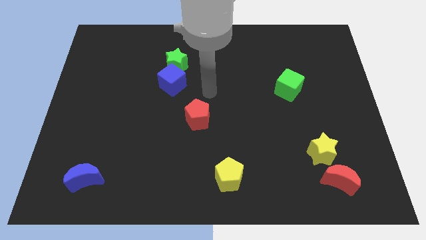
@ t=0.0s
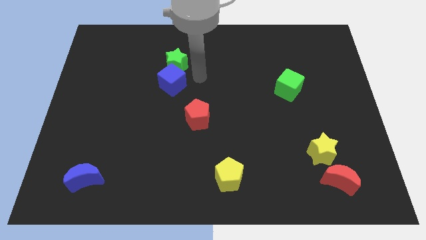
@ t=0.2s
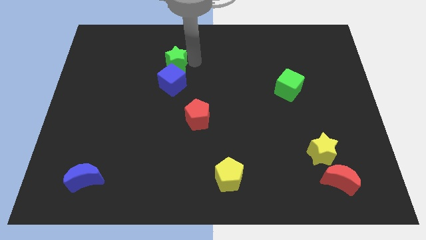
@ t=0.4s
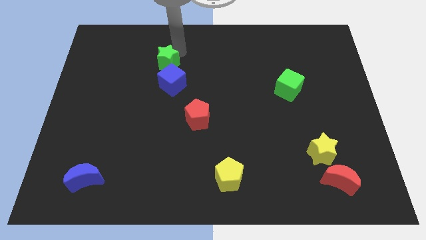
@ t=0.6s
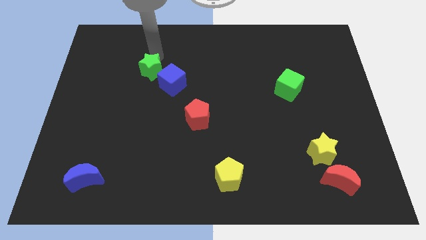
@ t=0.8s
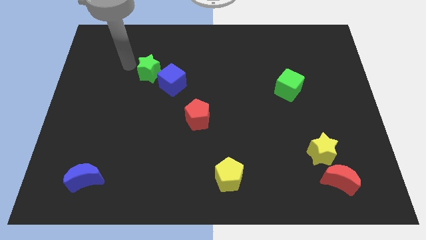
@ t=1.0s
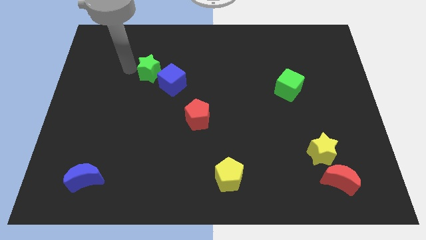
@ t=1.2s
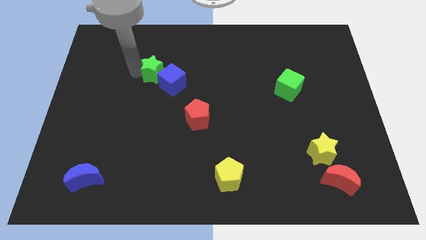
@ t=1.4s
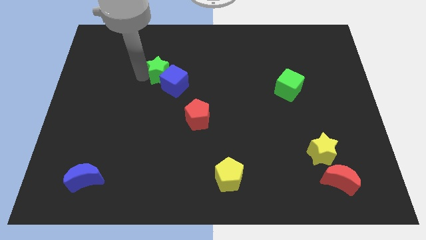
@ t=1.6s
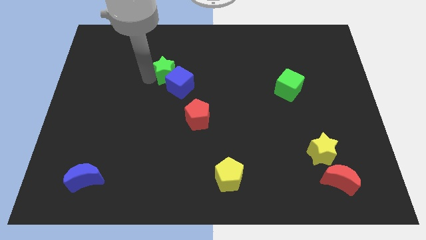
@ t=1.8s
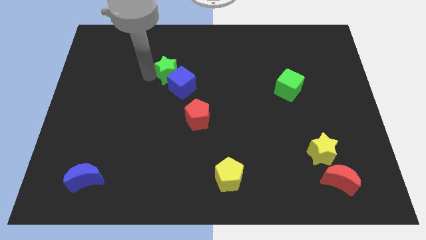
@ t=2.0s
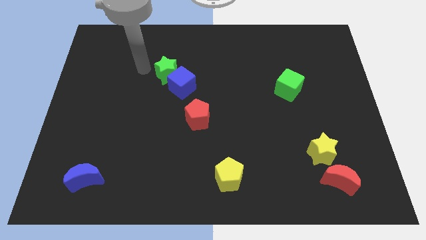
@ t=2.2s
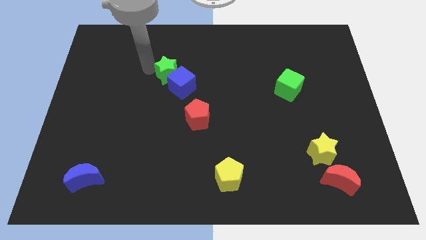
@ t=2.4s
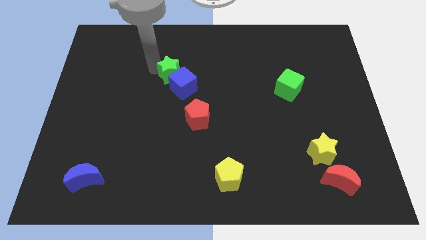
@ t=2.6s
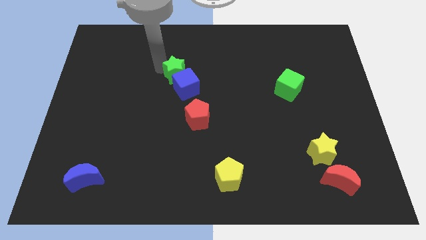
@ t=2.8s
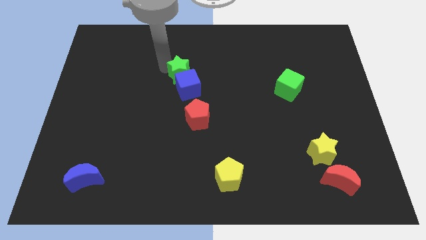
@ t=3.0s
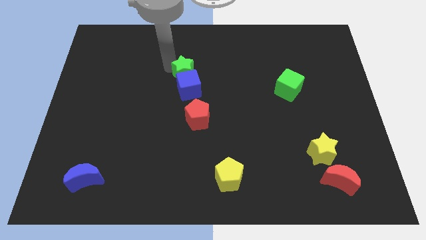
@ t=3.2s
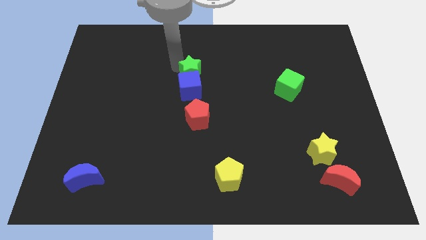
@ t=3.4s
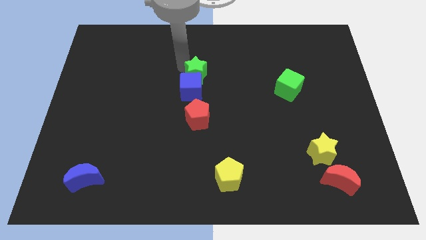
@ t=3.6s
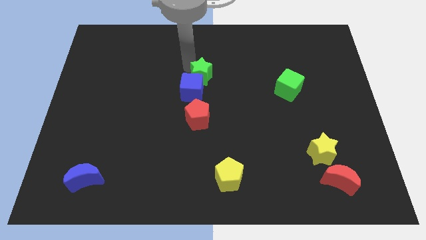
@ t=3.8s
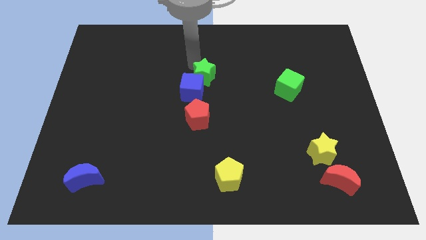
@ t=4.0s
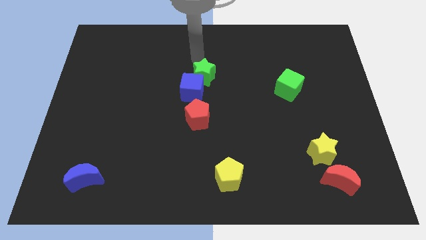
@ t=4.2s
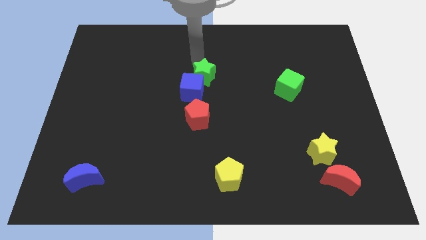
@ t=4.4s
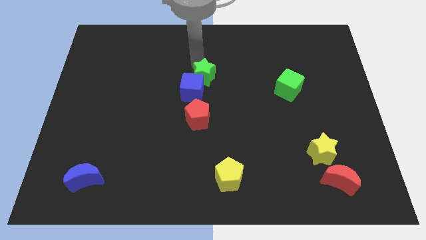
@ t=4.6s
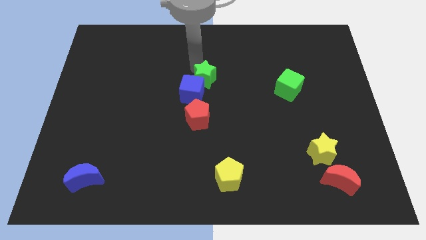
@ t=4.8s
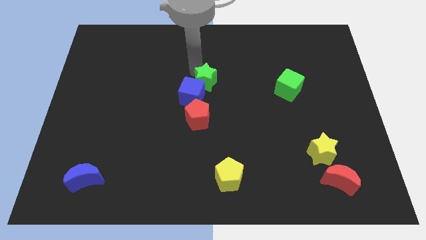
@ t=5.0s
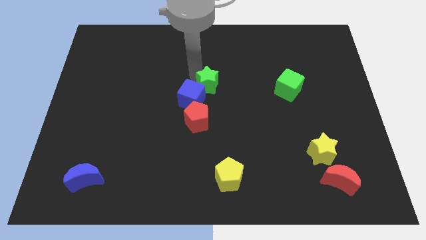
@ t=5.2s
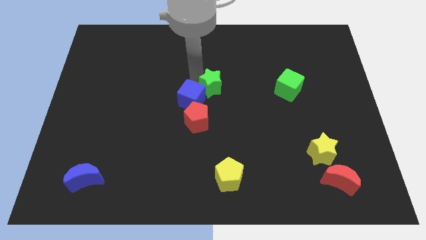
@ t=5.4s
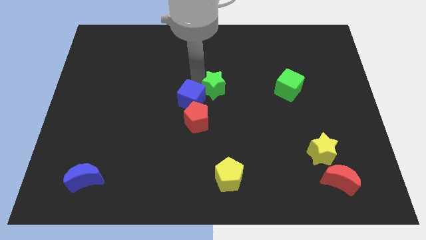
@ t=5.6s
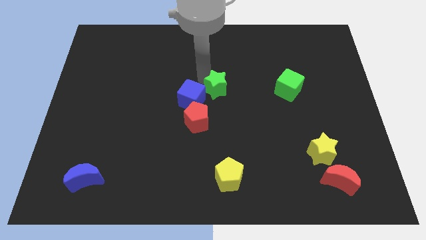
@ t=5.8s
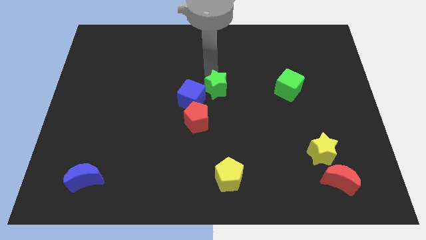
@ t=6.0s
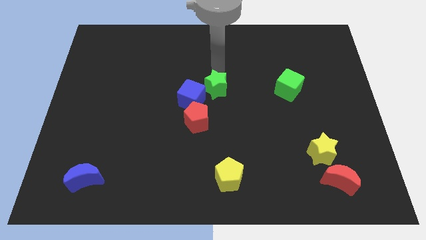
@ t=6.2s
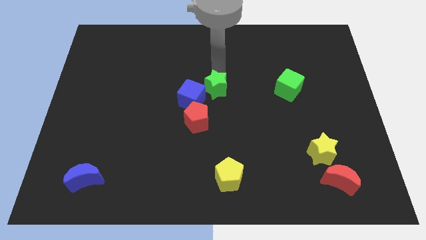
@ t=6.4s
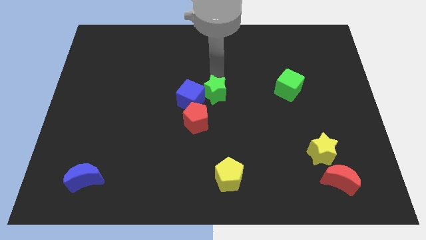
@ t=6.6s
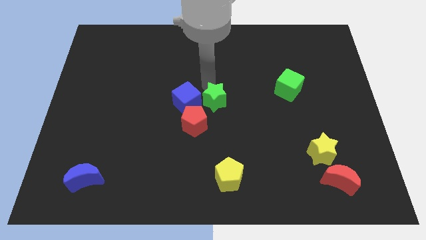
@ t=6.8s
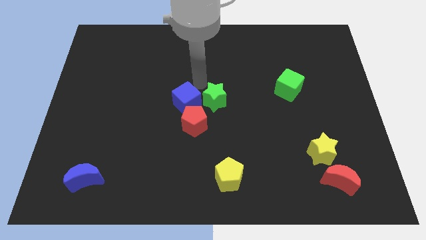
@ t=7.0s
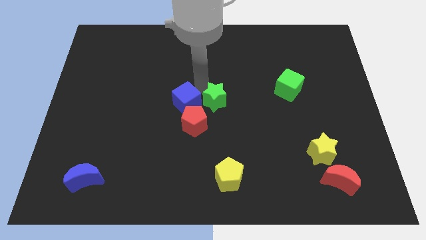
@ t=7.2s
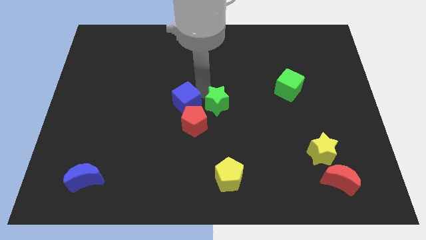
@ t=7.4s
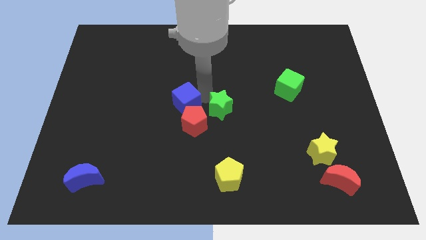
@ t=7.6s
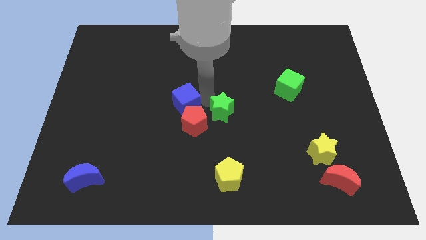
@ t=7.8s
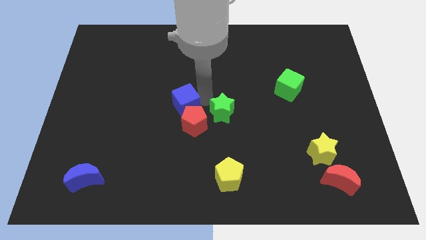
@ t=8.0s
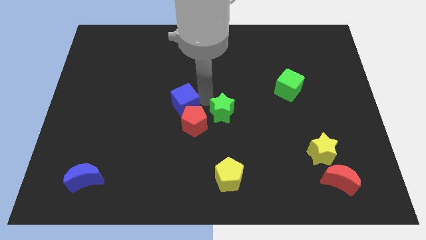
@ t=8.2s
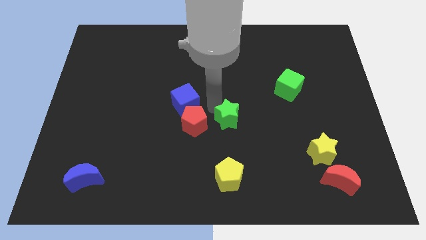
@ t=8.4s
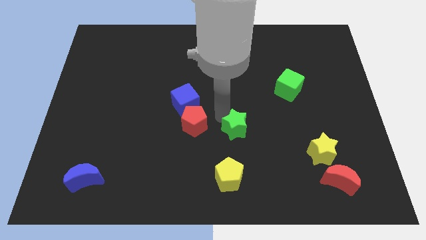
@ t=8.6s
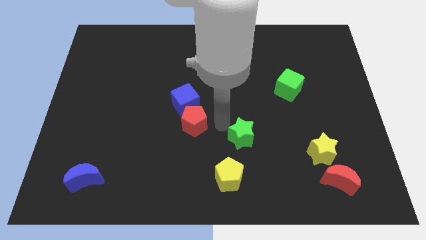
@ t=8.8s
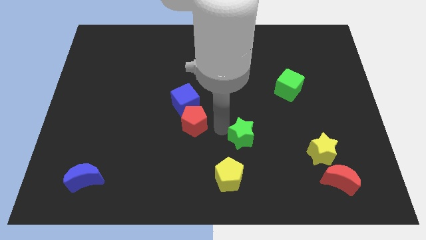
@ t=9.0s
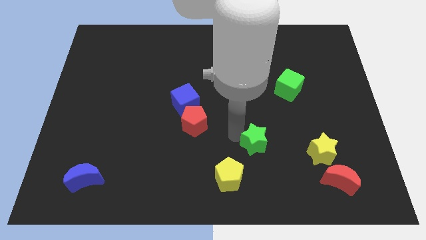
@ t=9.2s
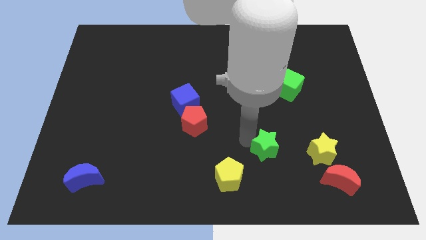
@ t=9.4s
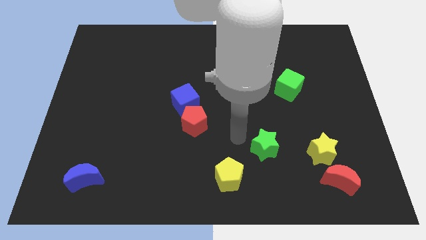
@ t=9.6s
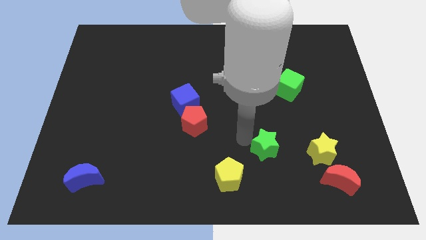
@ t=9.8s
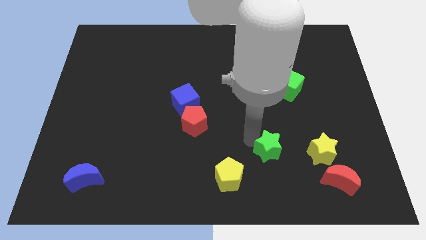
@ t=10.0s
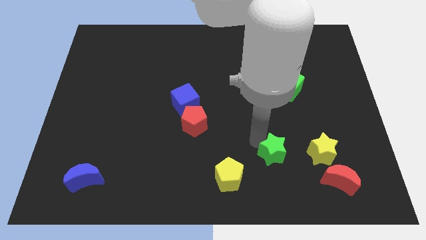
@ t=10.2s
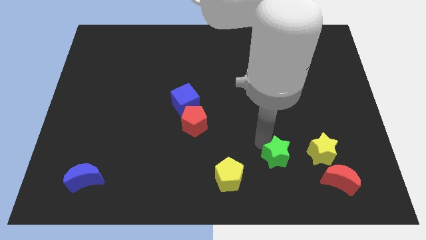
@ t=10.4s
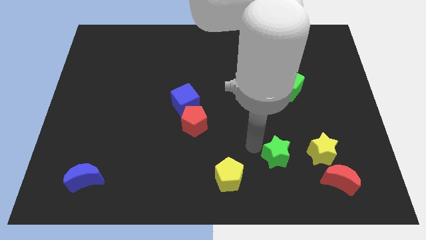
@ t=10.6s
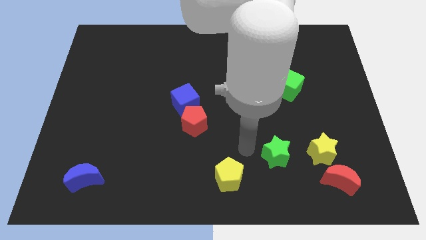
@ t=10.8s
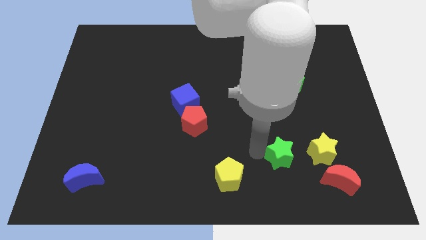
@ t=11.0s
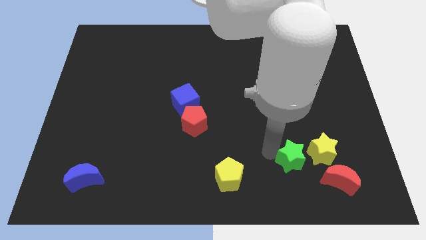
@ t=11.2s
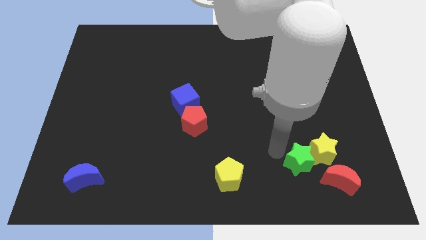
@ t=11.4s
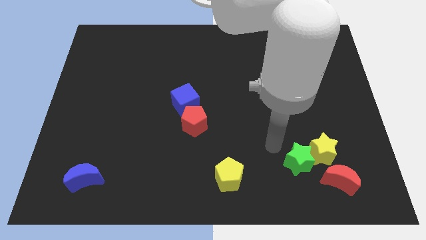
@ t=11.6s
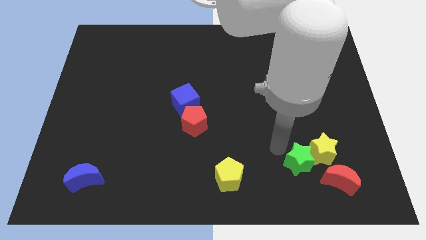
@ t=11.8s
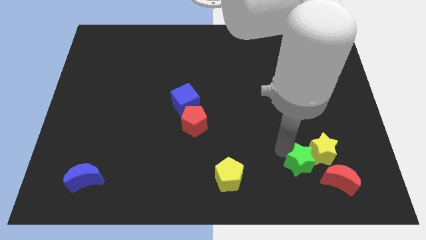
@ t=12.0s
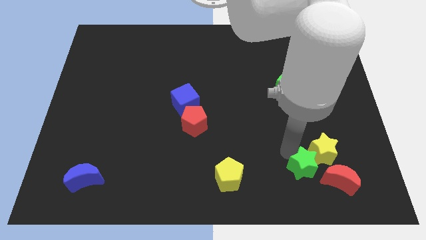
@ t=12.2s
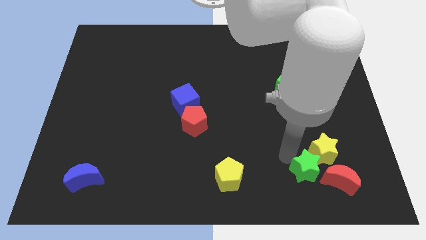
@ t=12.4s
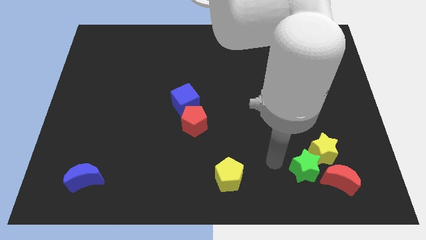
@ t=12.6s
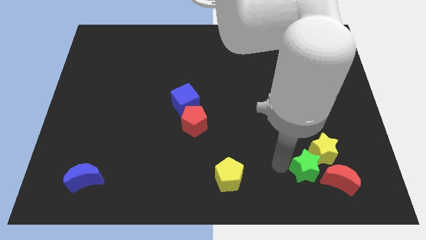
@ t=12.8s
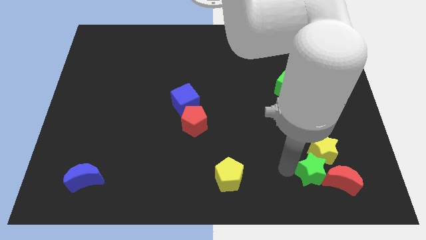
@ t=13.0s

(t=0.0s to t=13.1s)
move the green star next to the red moon

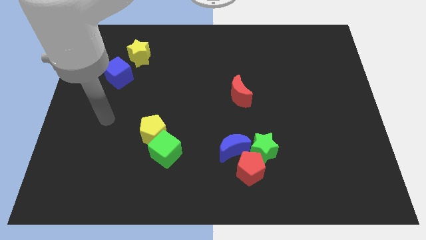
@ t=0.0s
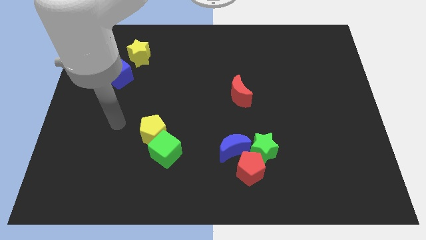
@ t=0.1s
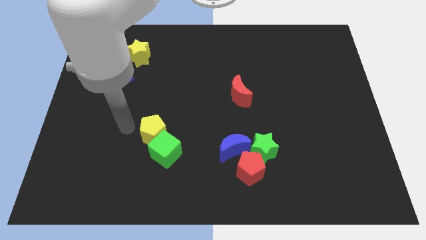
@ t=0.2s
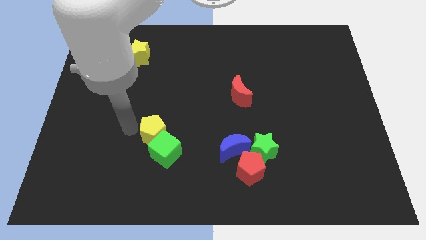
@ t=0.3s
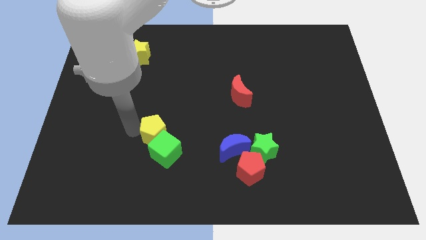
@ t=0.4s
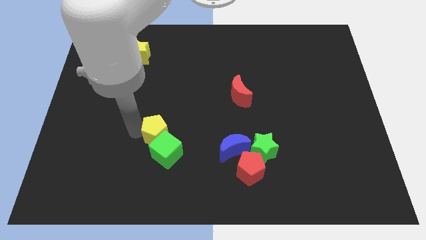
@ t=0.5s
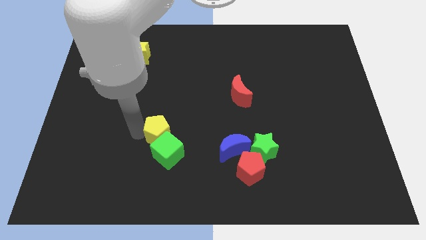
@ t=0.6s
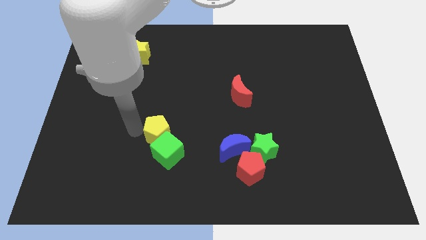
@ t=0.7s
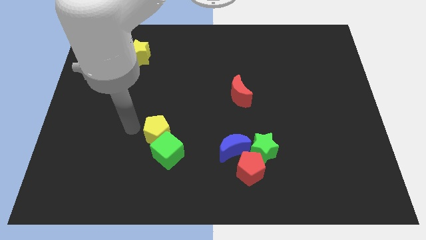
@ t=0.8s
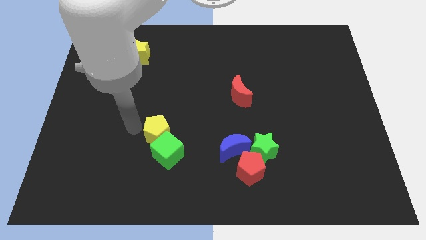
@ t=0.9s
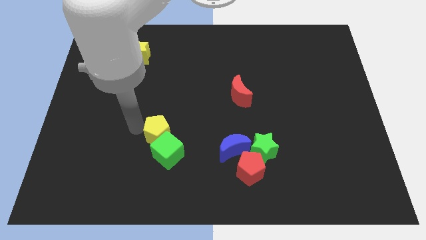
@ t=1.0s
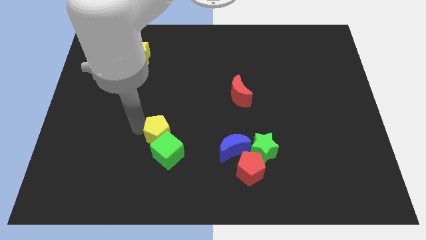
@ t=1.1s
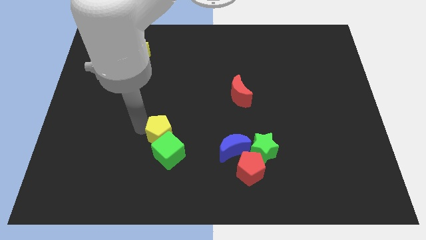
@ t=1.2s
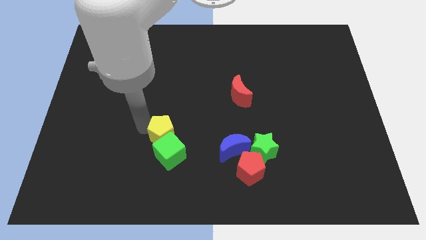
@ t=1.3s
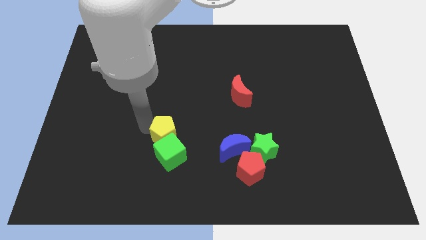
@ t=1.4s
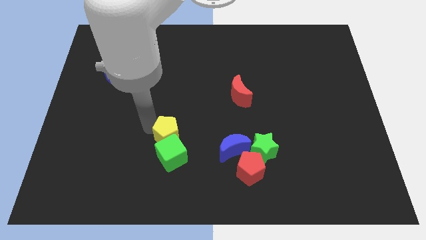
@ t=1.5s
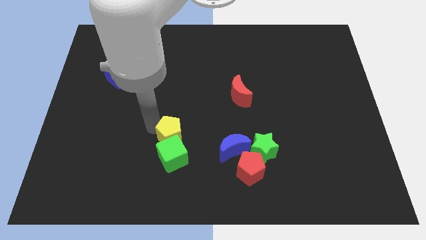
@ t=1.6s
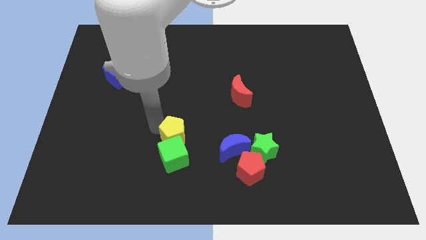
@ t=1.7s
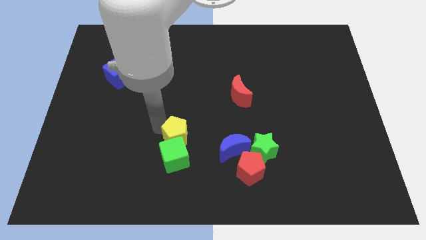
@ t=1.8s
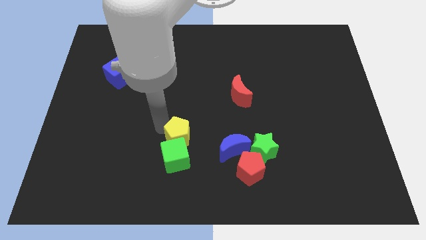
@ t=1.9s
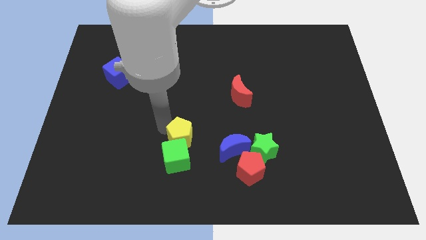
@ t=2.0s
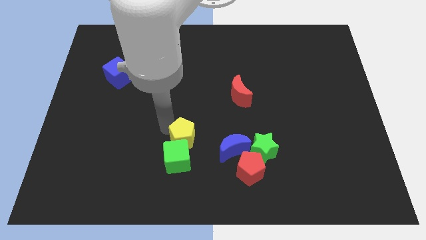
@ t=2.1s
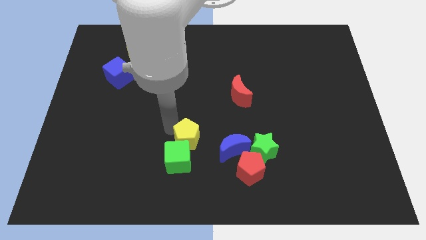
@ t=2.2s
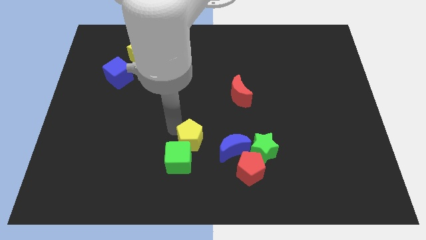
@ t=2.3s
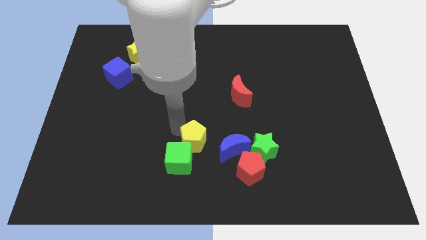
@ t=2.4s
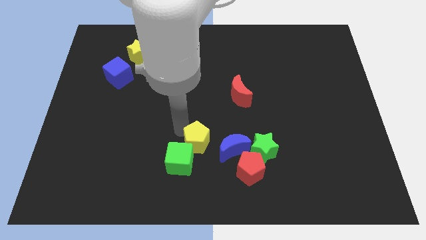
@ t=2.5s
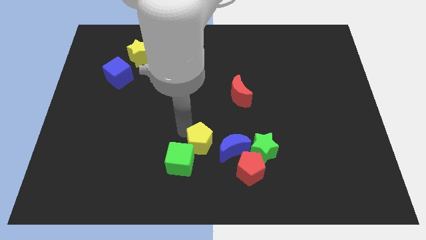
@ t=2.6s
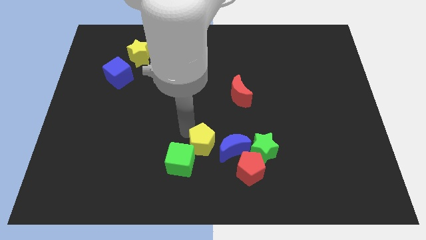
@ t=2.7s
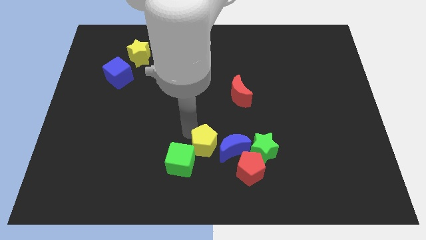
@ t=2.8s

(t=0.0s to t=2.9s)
slide the yellow pentagon close to the blue moon
